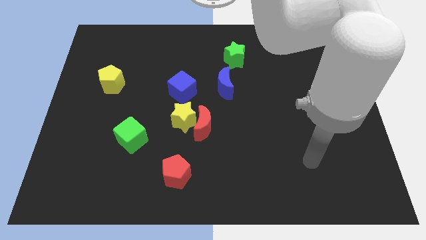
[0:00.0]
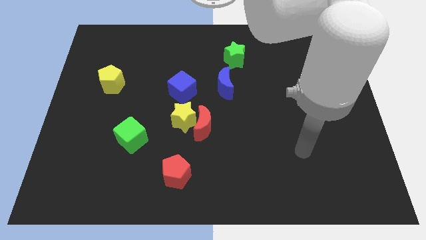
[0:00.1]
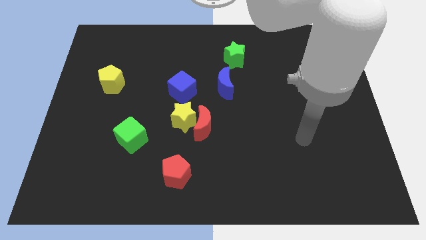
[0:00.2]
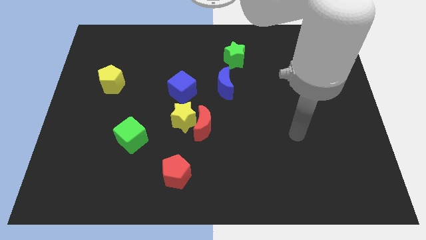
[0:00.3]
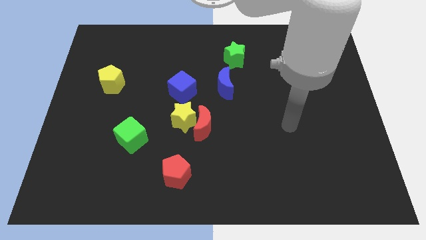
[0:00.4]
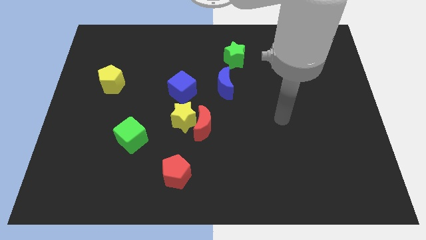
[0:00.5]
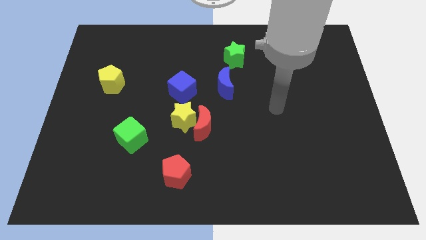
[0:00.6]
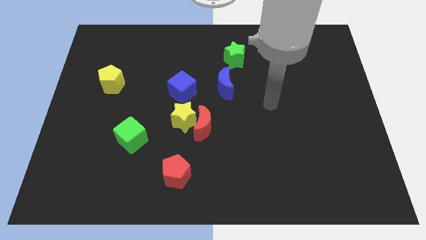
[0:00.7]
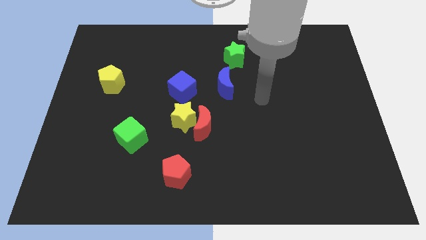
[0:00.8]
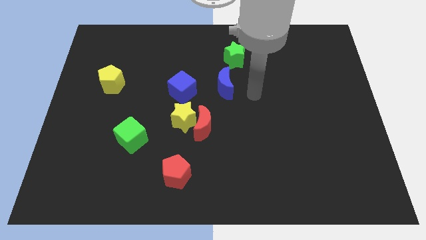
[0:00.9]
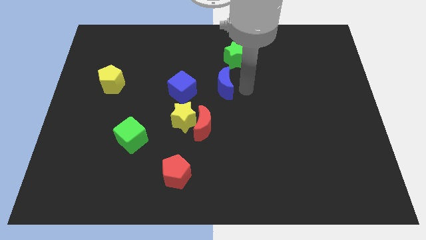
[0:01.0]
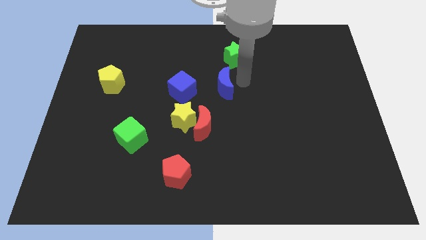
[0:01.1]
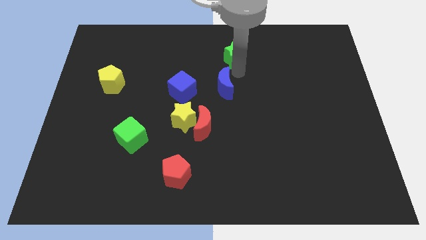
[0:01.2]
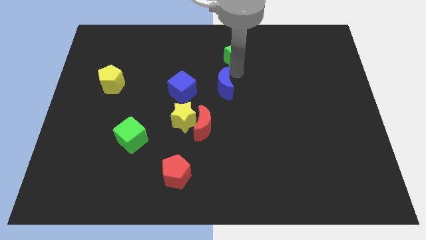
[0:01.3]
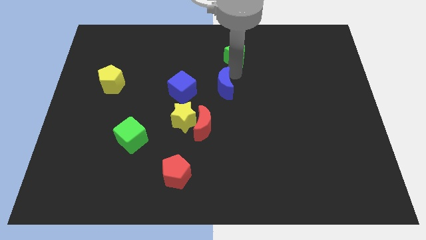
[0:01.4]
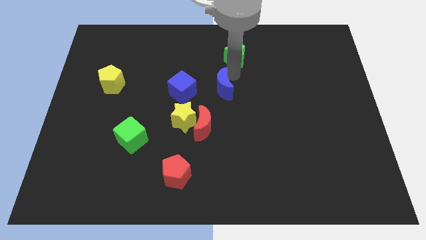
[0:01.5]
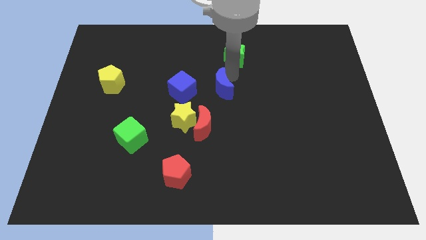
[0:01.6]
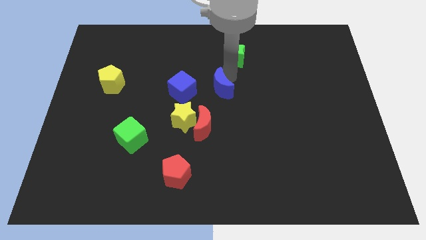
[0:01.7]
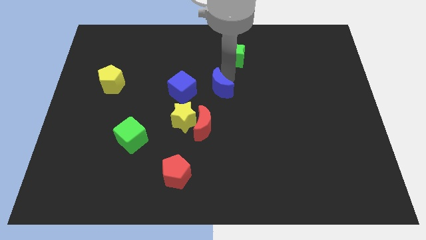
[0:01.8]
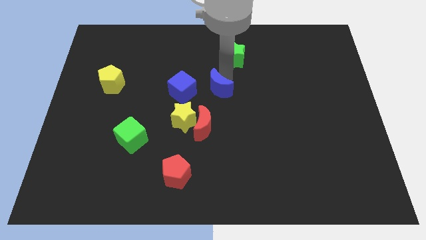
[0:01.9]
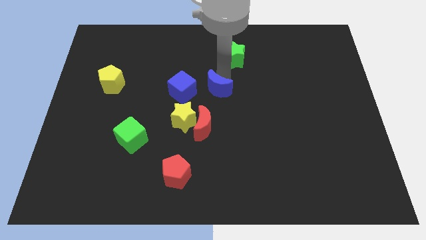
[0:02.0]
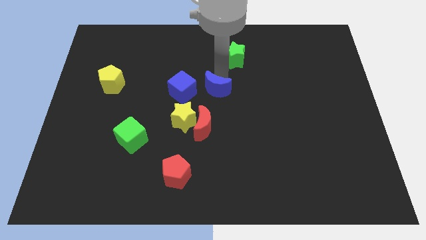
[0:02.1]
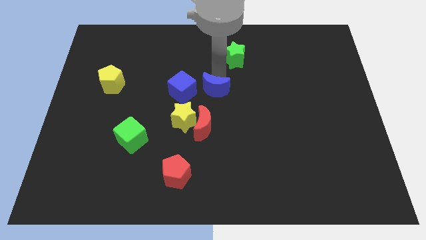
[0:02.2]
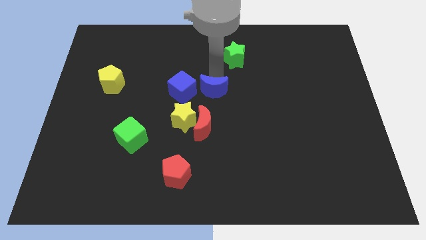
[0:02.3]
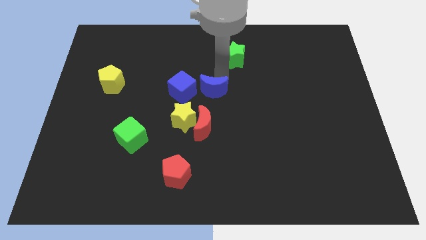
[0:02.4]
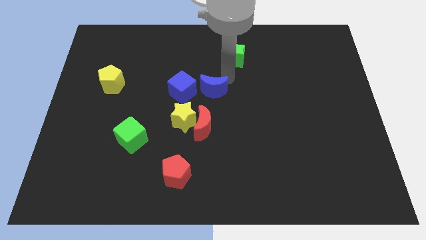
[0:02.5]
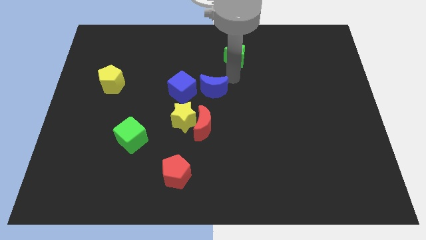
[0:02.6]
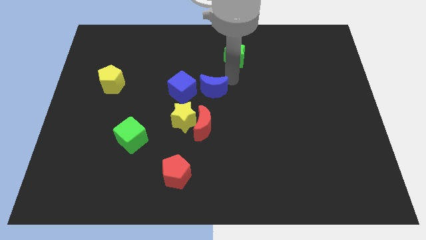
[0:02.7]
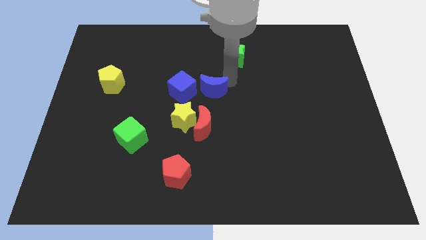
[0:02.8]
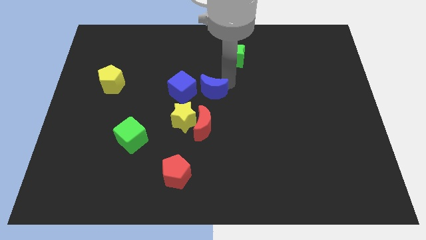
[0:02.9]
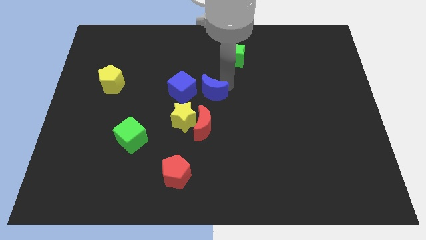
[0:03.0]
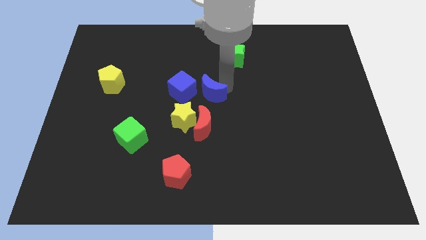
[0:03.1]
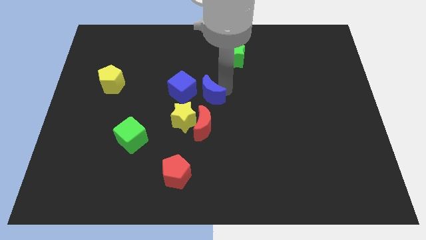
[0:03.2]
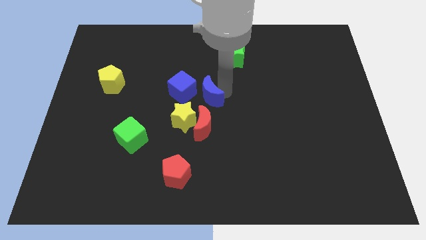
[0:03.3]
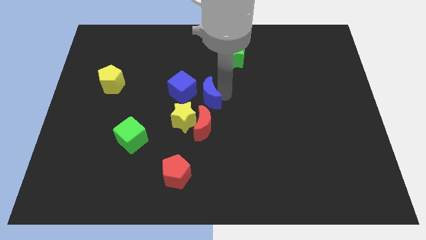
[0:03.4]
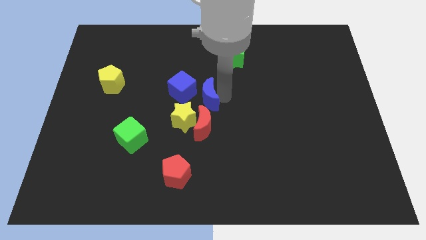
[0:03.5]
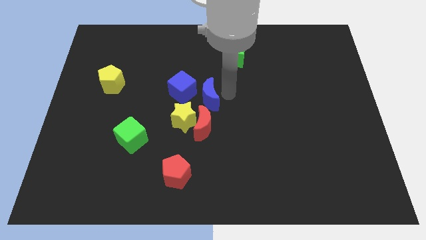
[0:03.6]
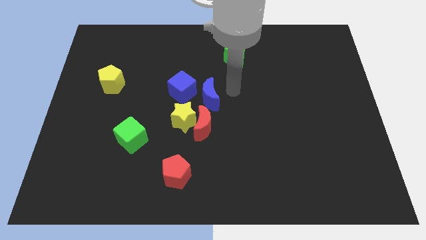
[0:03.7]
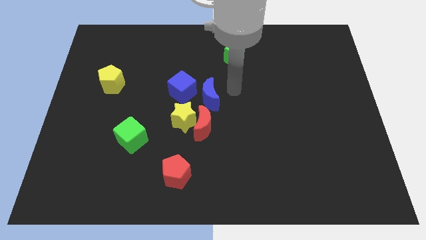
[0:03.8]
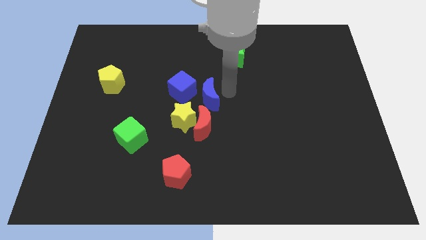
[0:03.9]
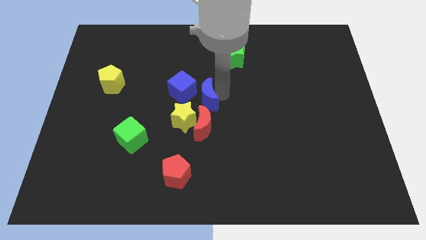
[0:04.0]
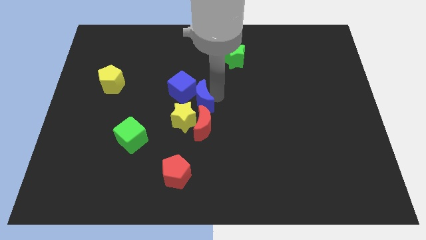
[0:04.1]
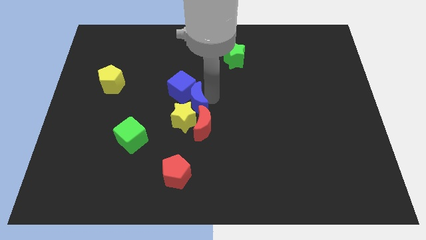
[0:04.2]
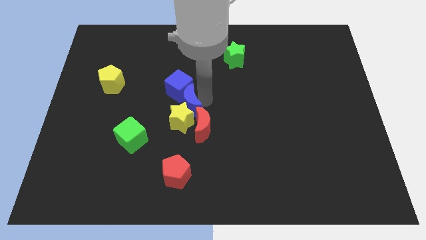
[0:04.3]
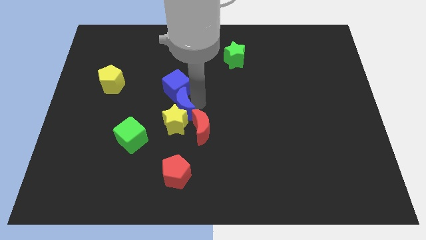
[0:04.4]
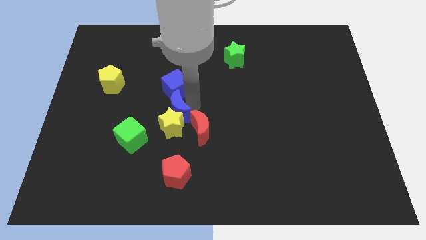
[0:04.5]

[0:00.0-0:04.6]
put the blue moon to the top right of the green cube

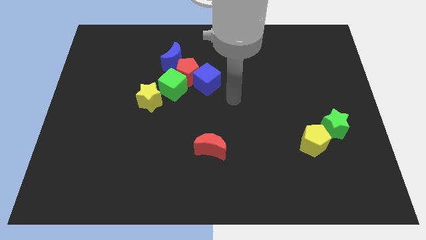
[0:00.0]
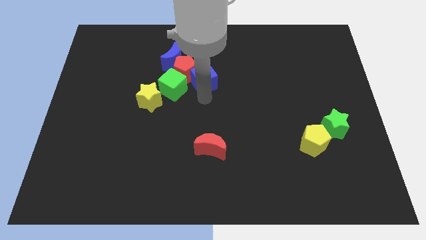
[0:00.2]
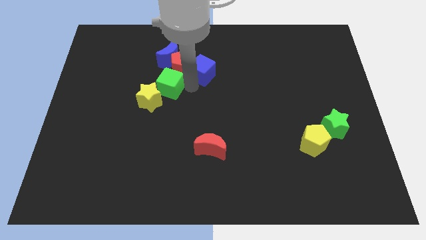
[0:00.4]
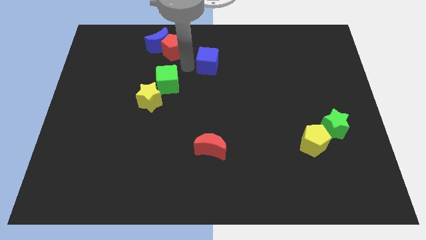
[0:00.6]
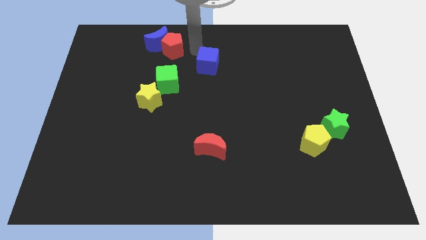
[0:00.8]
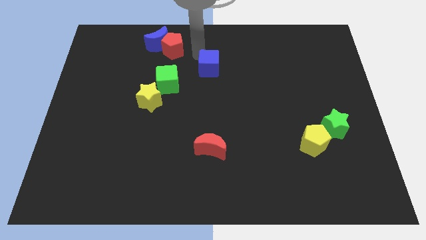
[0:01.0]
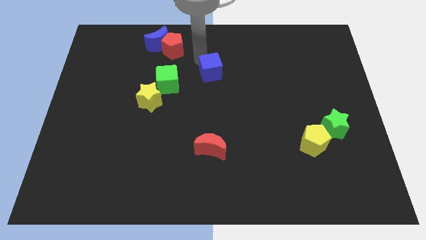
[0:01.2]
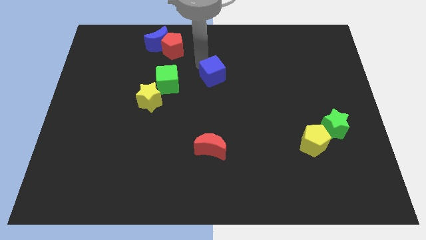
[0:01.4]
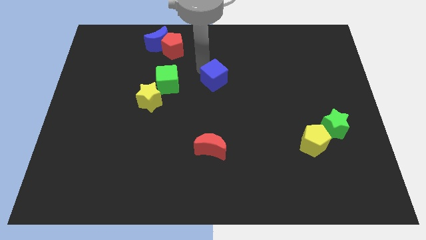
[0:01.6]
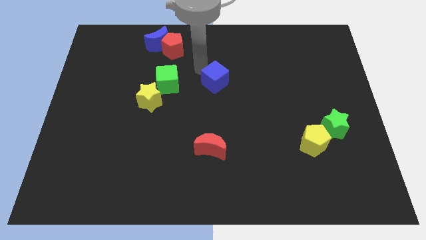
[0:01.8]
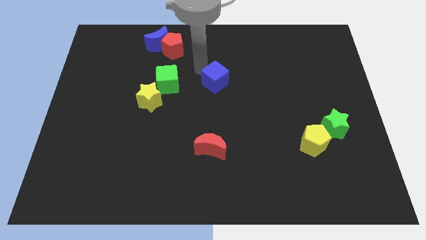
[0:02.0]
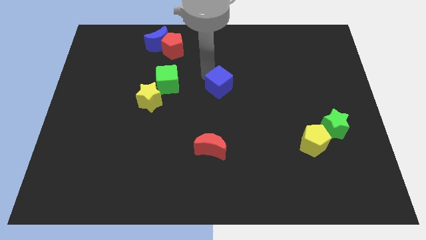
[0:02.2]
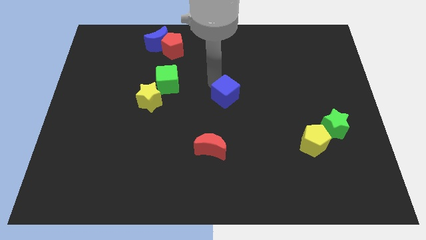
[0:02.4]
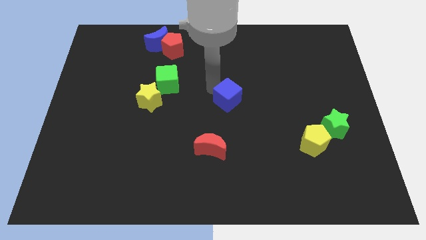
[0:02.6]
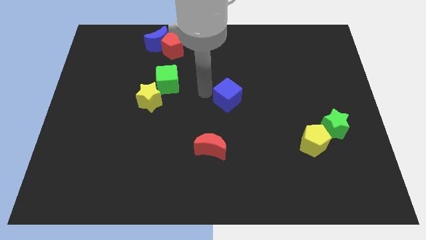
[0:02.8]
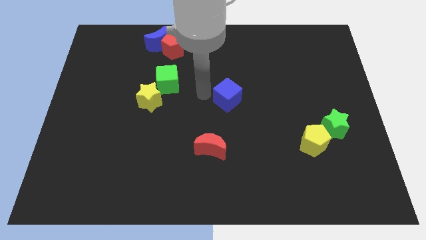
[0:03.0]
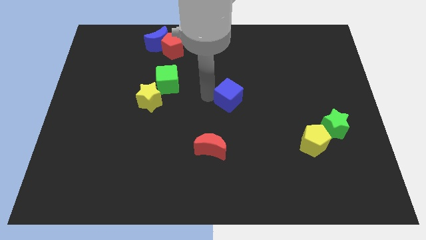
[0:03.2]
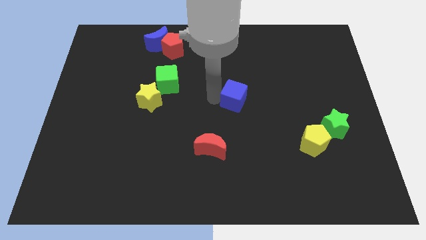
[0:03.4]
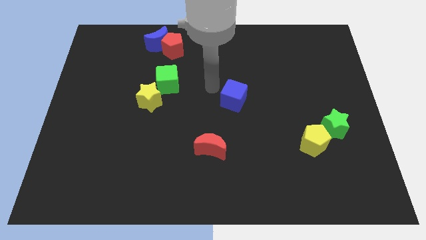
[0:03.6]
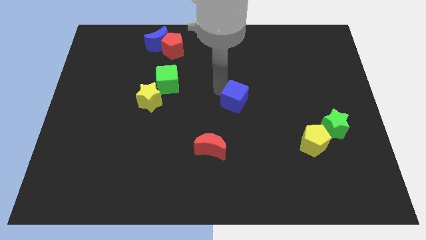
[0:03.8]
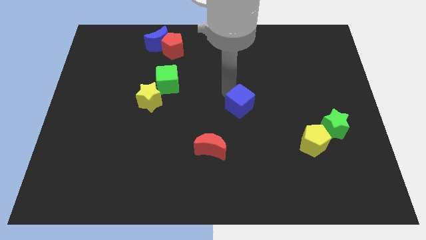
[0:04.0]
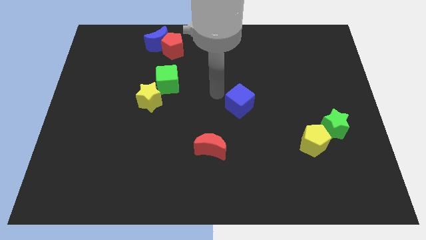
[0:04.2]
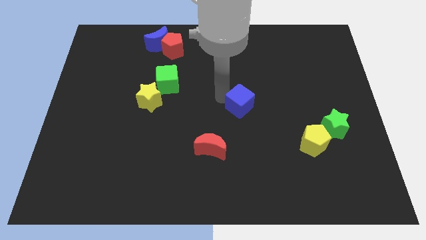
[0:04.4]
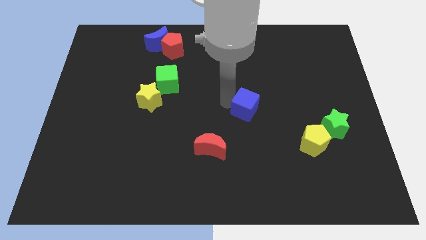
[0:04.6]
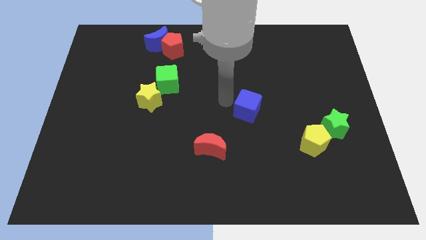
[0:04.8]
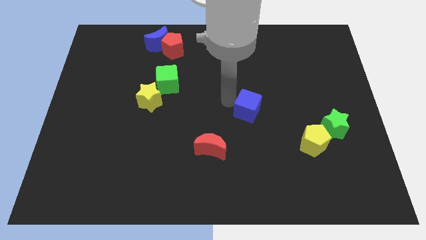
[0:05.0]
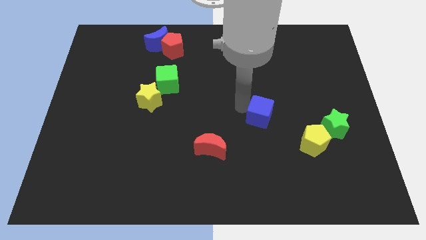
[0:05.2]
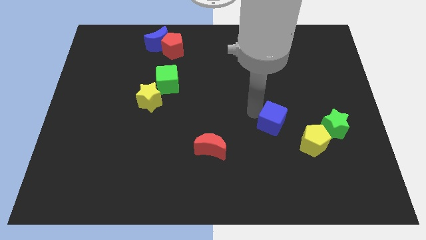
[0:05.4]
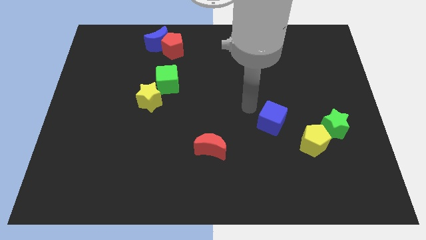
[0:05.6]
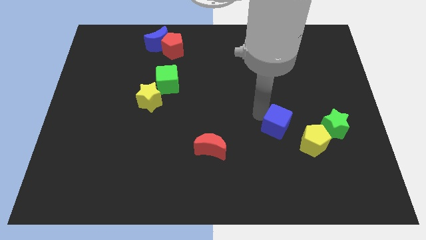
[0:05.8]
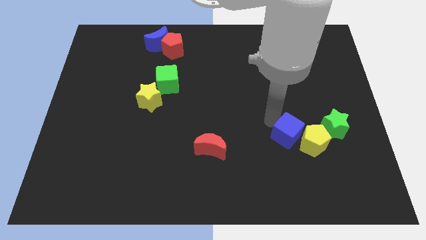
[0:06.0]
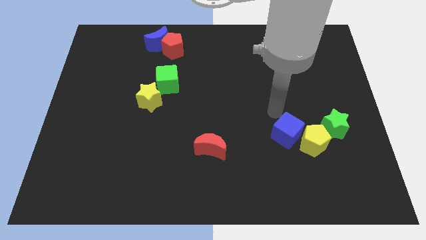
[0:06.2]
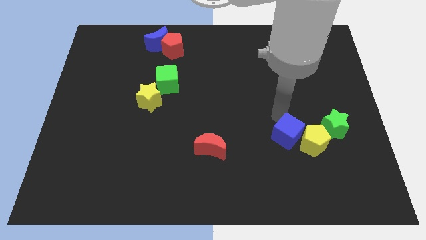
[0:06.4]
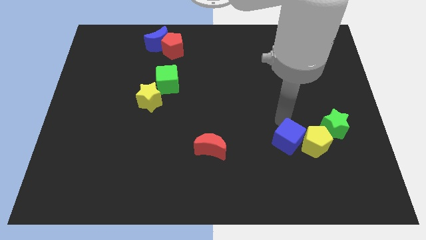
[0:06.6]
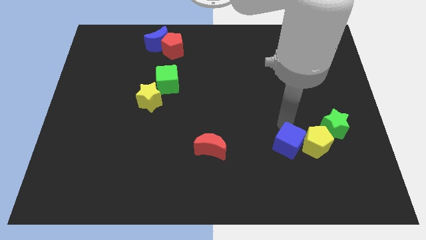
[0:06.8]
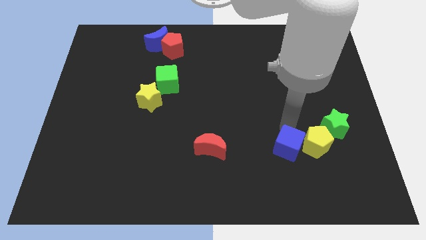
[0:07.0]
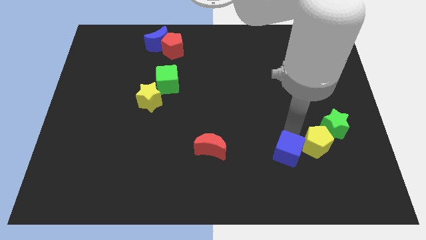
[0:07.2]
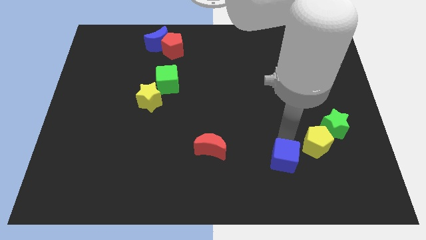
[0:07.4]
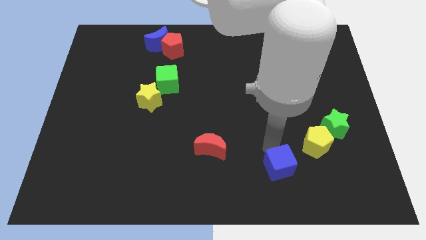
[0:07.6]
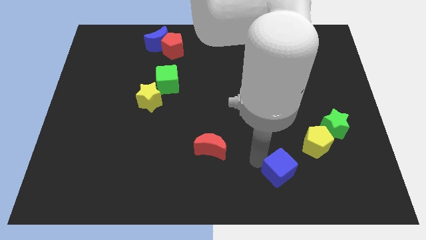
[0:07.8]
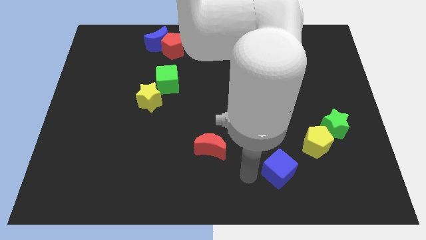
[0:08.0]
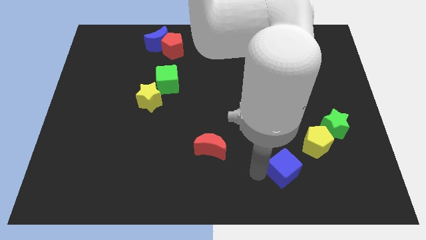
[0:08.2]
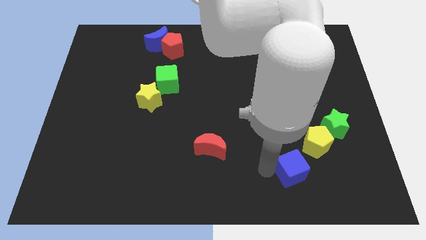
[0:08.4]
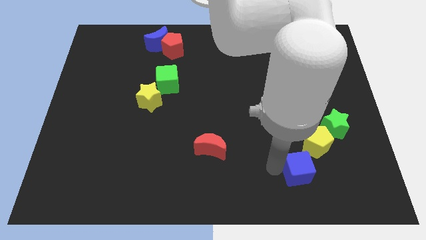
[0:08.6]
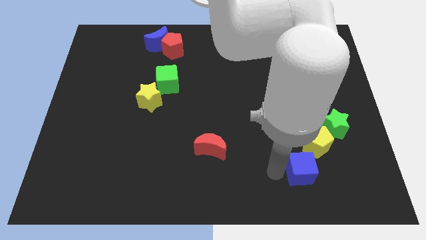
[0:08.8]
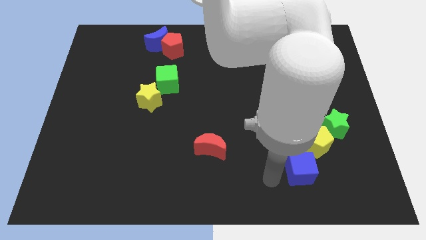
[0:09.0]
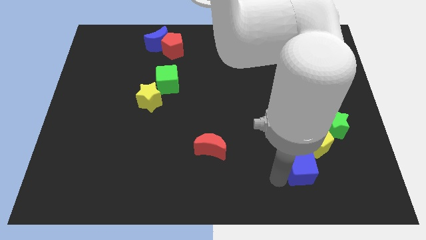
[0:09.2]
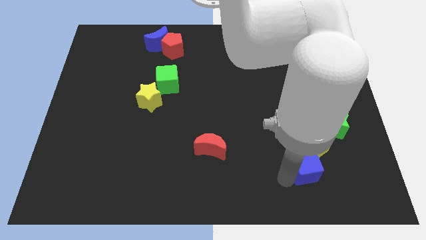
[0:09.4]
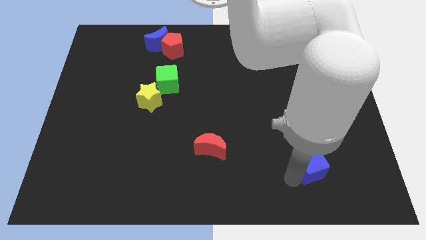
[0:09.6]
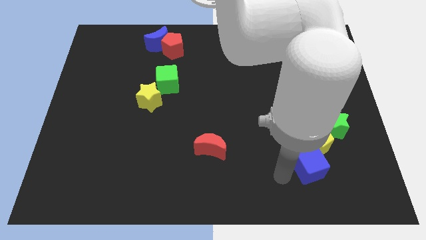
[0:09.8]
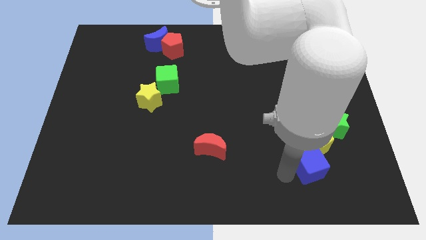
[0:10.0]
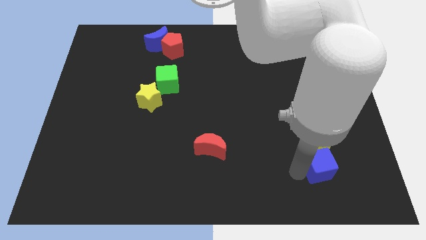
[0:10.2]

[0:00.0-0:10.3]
move the blue cube to the bottom of the green star
